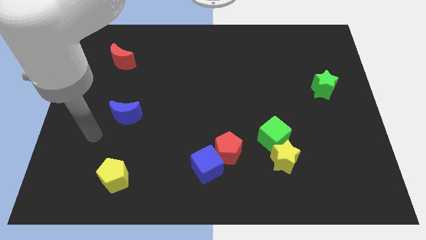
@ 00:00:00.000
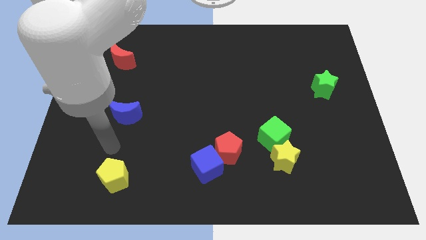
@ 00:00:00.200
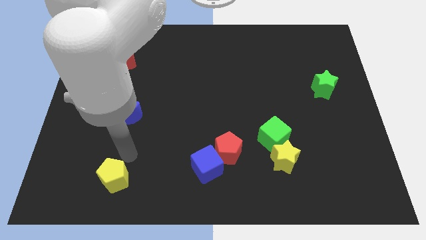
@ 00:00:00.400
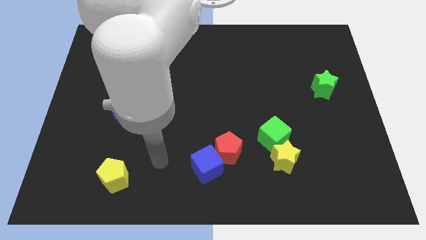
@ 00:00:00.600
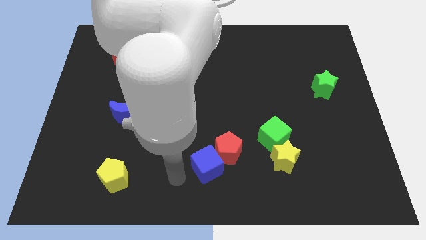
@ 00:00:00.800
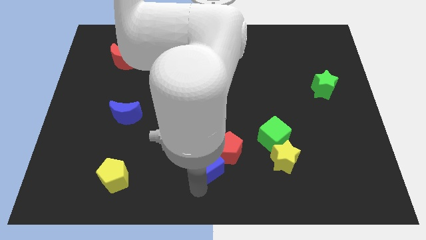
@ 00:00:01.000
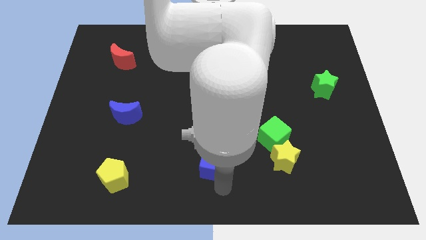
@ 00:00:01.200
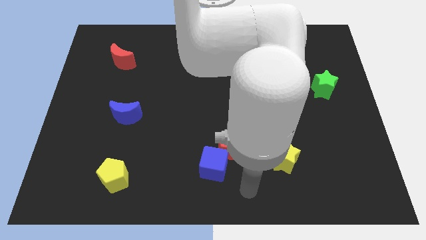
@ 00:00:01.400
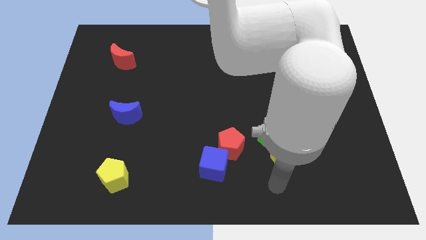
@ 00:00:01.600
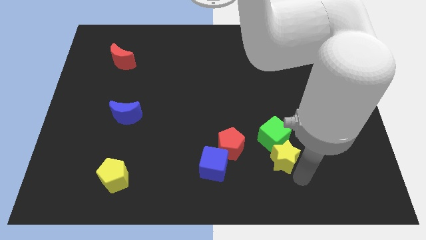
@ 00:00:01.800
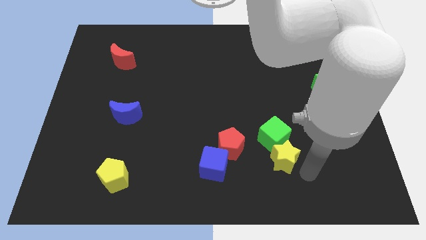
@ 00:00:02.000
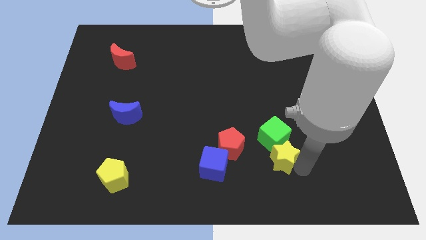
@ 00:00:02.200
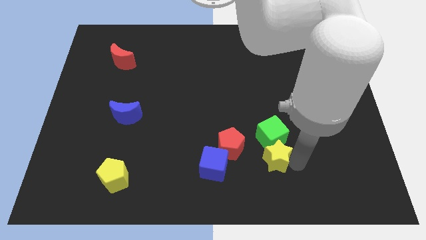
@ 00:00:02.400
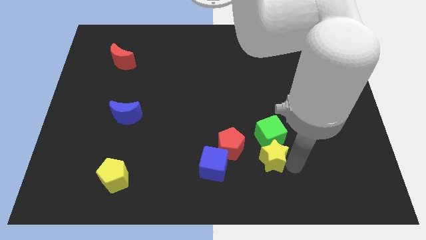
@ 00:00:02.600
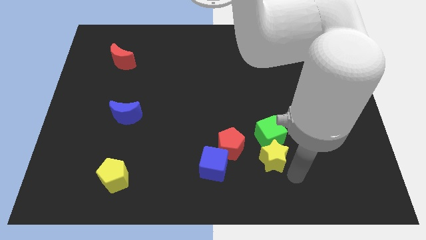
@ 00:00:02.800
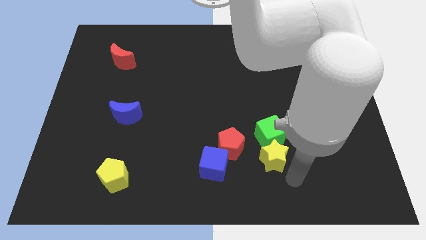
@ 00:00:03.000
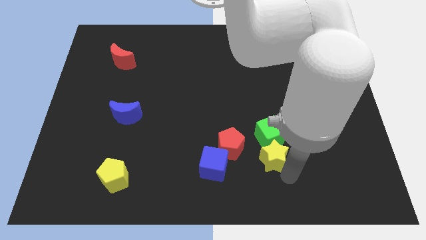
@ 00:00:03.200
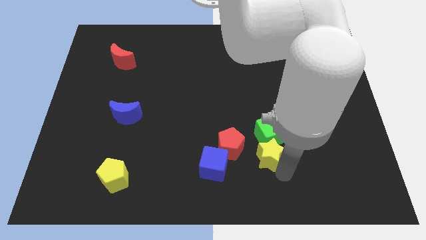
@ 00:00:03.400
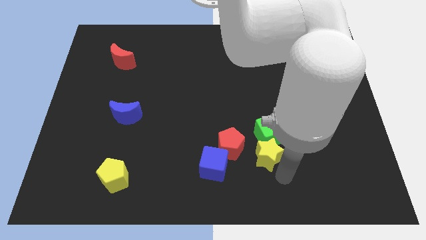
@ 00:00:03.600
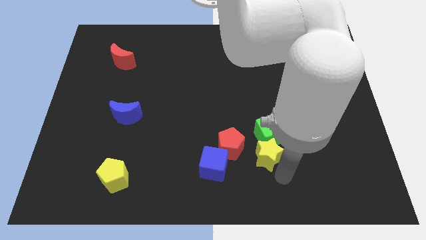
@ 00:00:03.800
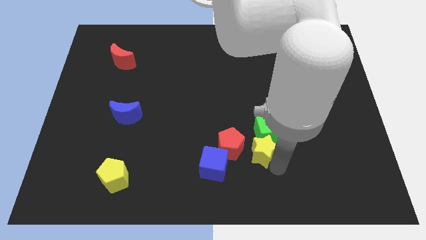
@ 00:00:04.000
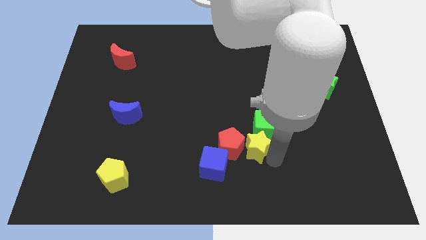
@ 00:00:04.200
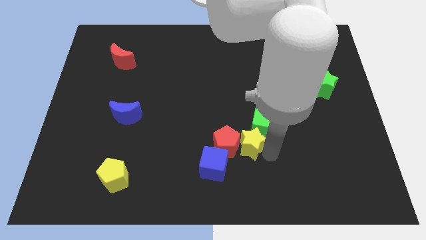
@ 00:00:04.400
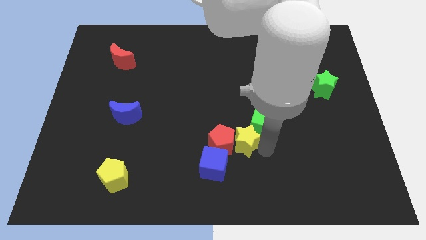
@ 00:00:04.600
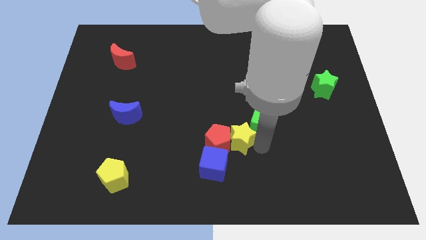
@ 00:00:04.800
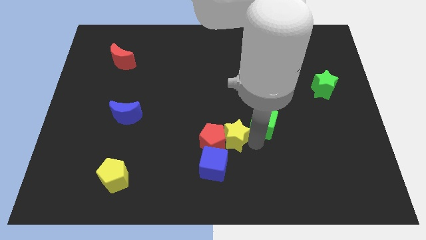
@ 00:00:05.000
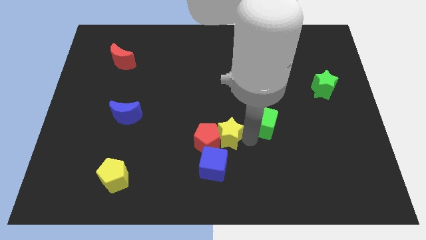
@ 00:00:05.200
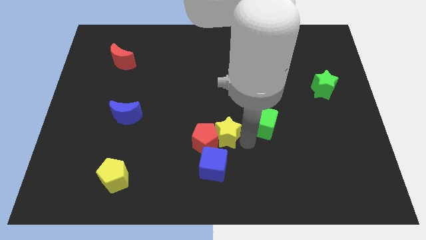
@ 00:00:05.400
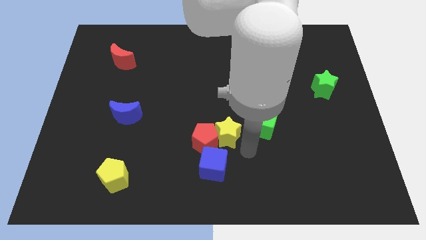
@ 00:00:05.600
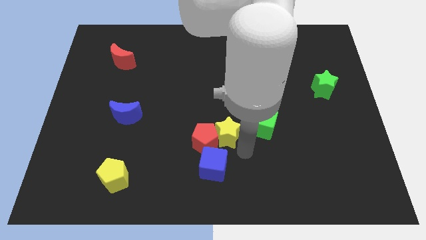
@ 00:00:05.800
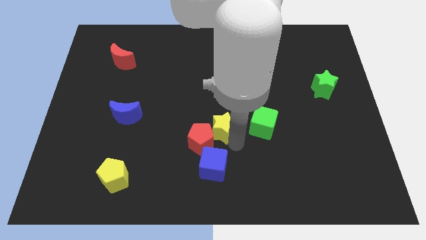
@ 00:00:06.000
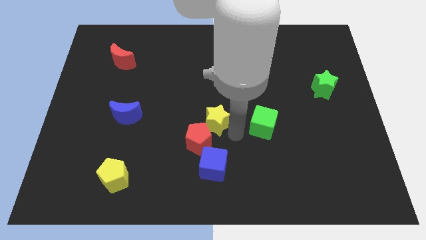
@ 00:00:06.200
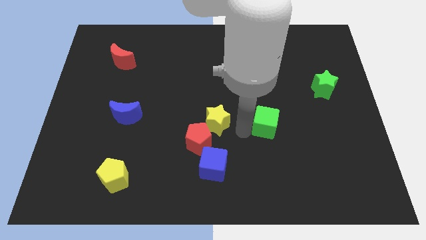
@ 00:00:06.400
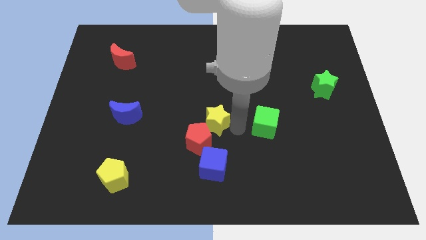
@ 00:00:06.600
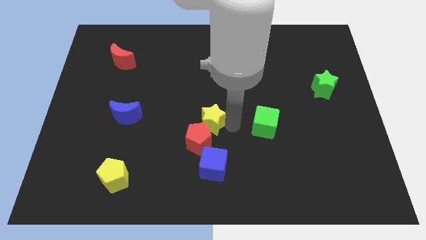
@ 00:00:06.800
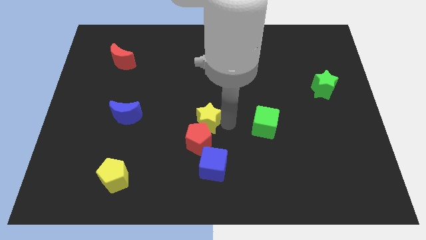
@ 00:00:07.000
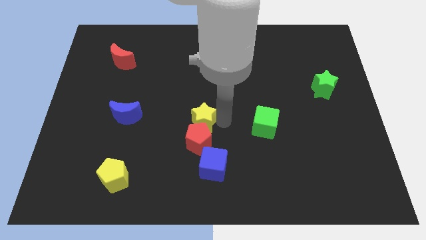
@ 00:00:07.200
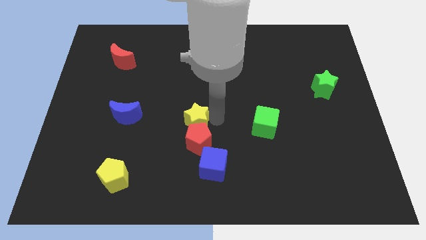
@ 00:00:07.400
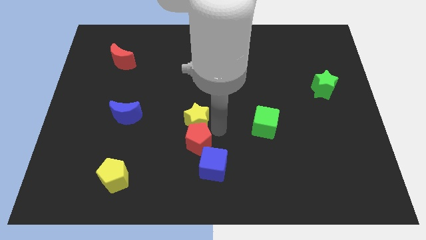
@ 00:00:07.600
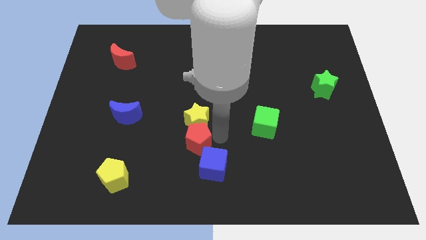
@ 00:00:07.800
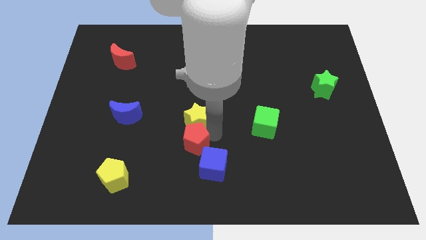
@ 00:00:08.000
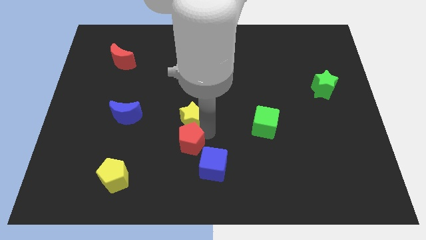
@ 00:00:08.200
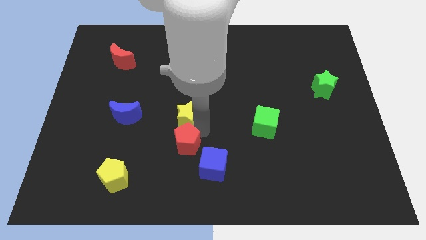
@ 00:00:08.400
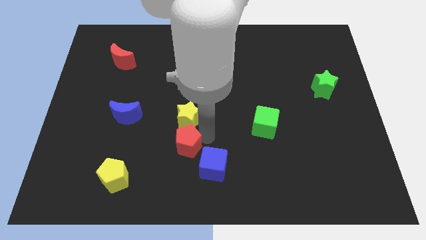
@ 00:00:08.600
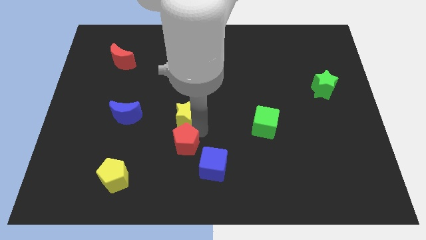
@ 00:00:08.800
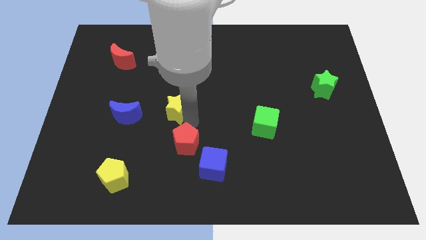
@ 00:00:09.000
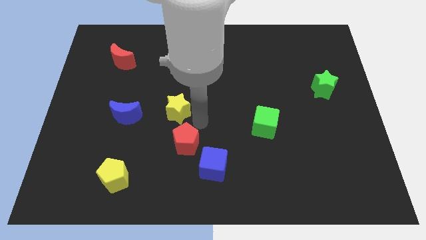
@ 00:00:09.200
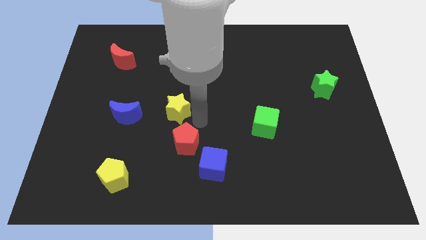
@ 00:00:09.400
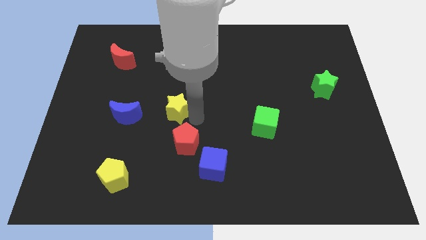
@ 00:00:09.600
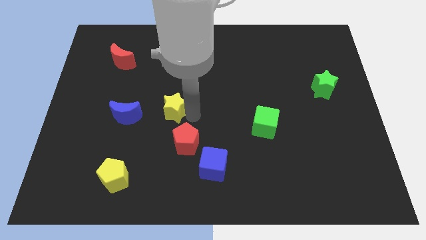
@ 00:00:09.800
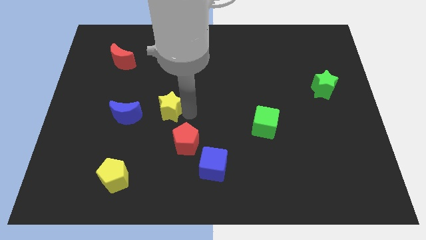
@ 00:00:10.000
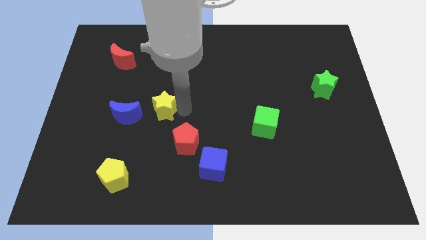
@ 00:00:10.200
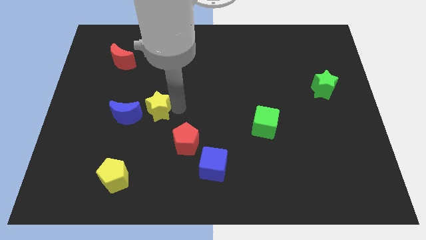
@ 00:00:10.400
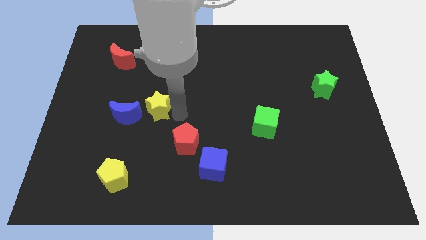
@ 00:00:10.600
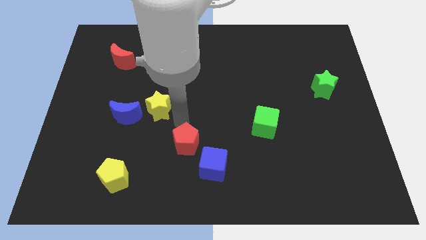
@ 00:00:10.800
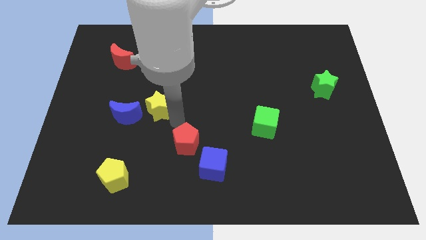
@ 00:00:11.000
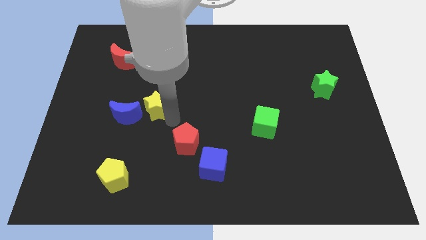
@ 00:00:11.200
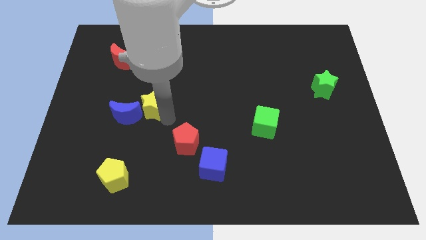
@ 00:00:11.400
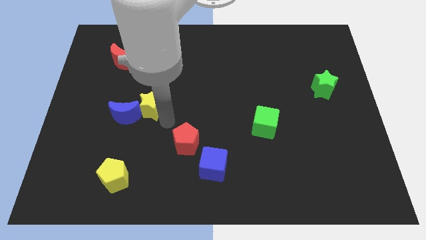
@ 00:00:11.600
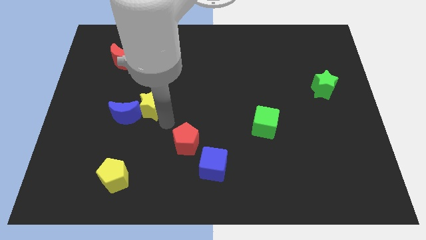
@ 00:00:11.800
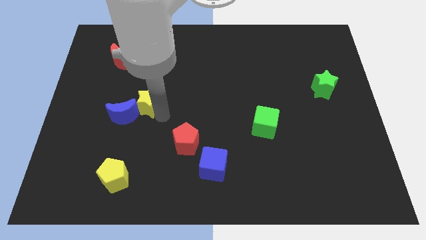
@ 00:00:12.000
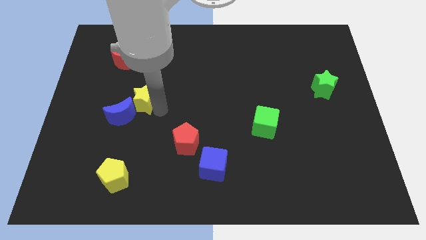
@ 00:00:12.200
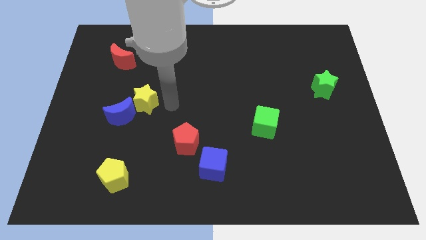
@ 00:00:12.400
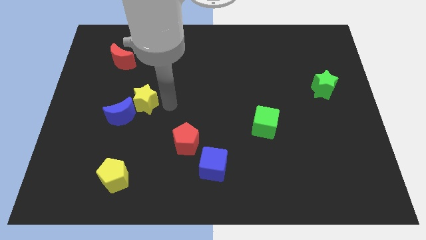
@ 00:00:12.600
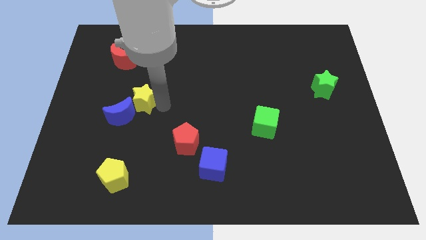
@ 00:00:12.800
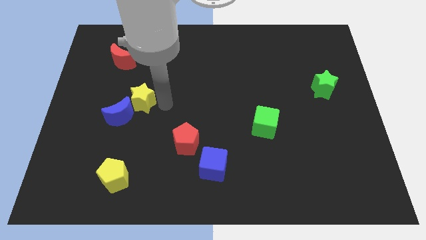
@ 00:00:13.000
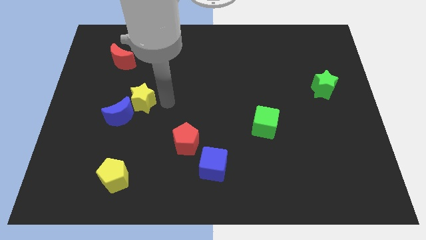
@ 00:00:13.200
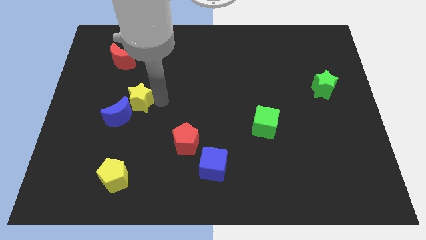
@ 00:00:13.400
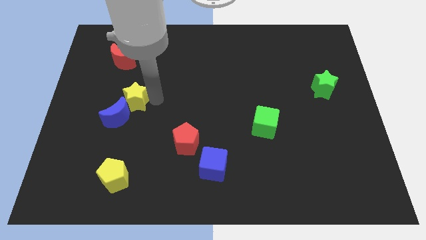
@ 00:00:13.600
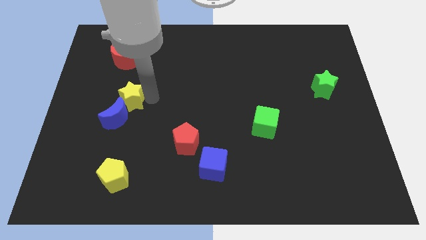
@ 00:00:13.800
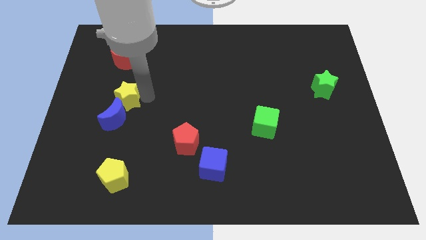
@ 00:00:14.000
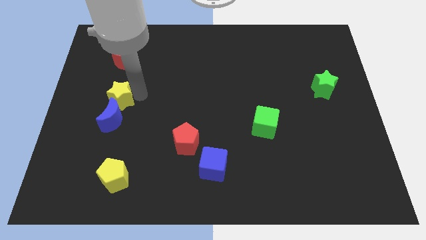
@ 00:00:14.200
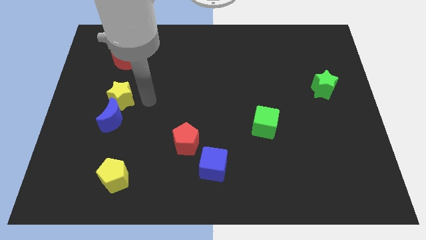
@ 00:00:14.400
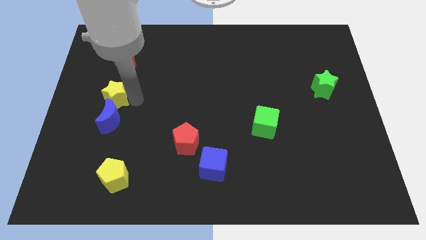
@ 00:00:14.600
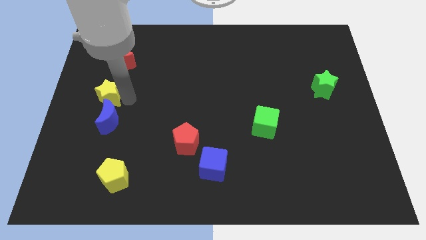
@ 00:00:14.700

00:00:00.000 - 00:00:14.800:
push the yellow star to the left side of the board
